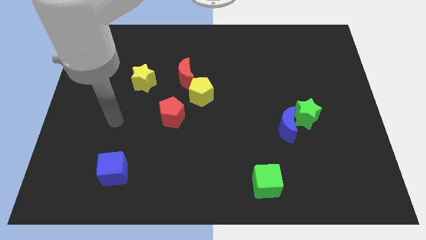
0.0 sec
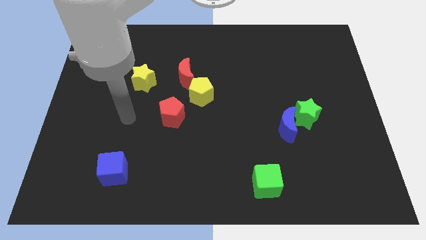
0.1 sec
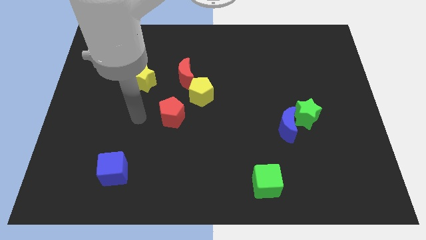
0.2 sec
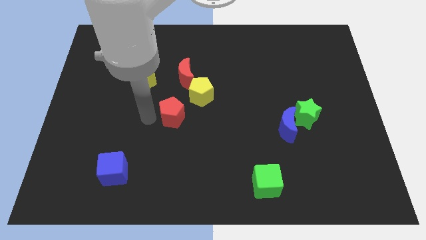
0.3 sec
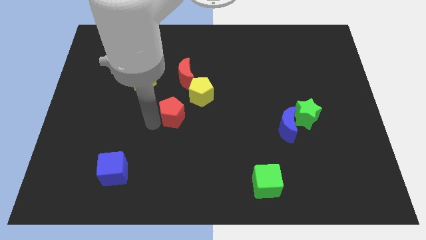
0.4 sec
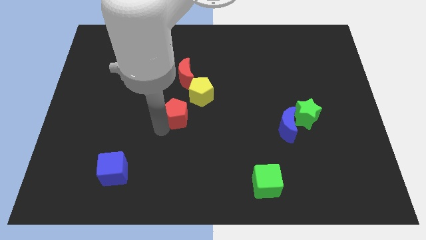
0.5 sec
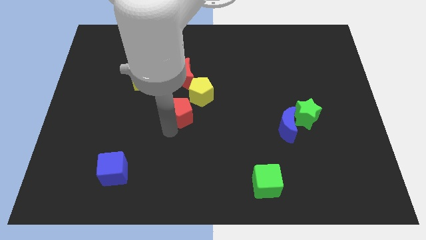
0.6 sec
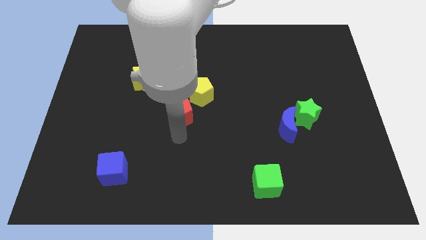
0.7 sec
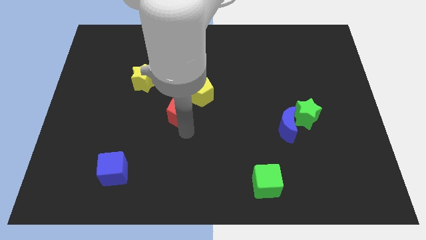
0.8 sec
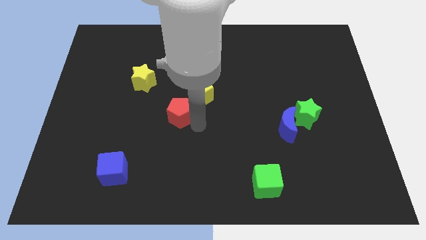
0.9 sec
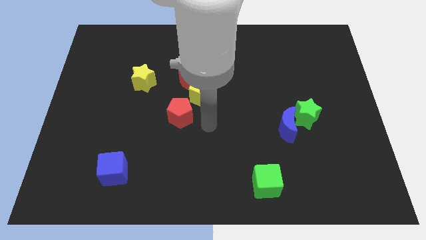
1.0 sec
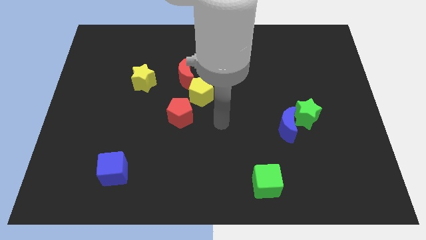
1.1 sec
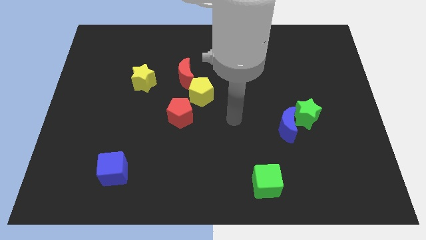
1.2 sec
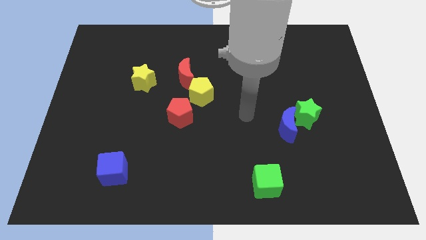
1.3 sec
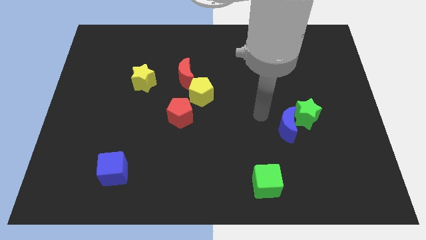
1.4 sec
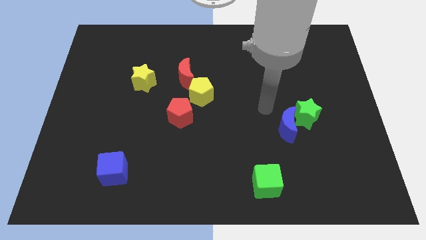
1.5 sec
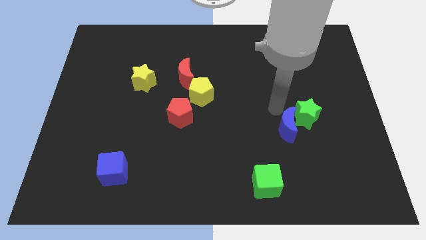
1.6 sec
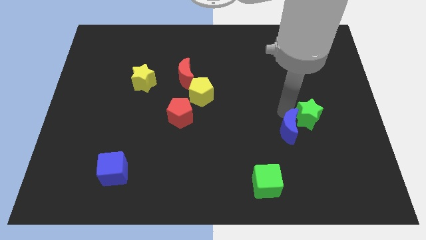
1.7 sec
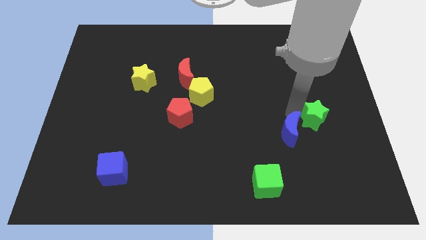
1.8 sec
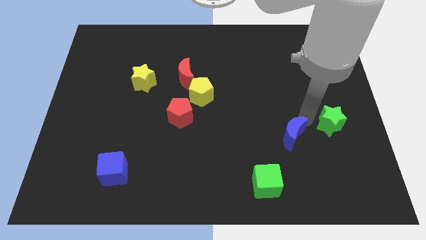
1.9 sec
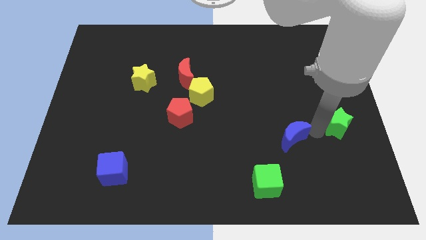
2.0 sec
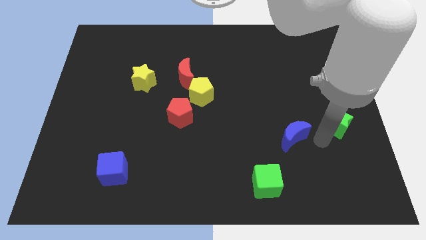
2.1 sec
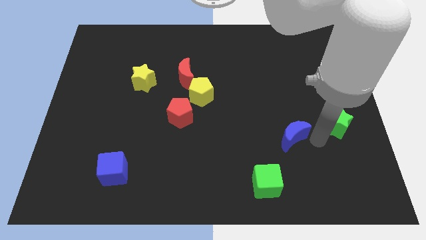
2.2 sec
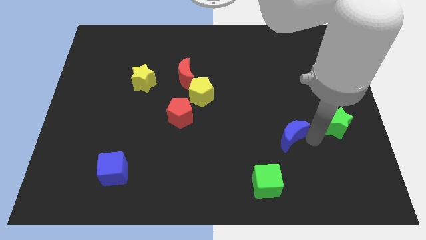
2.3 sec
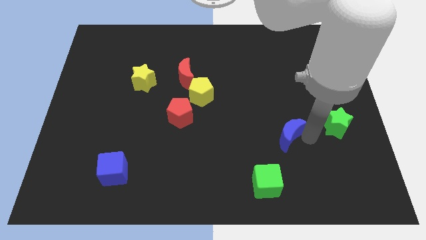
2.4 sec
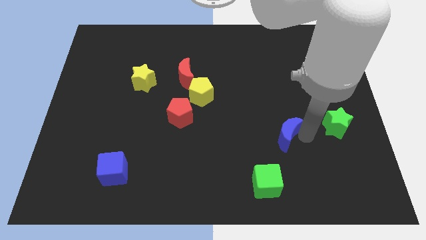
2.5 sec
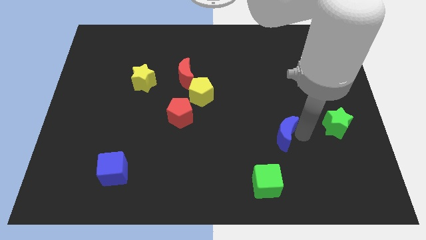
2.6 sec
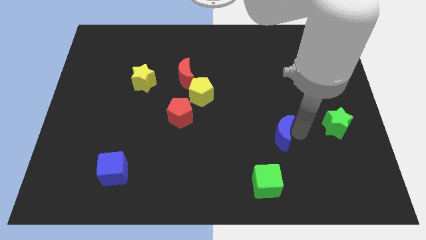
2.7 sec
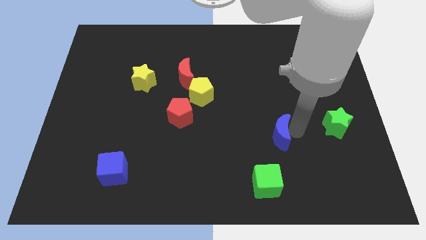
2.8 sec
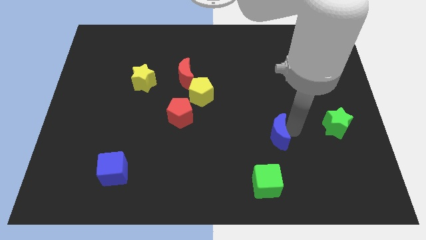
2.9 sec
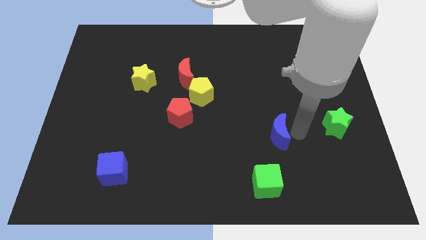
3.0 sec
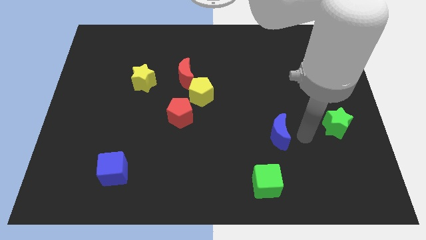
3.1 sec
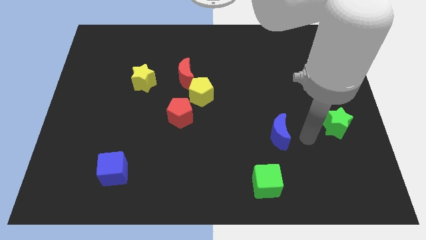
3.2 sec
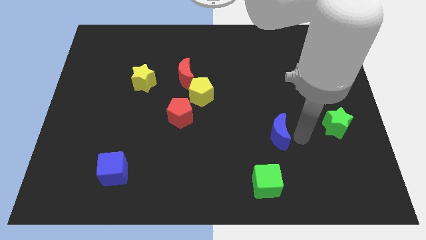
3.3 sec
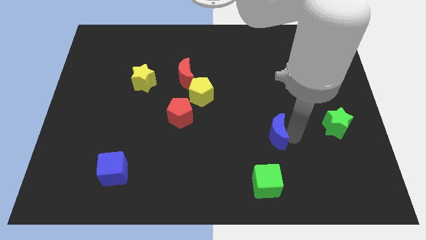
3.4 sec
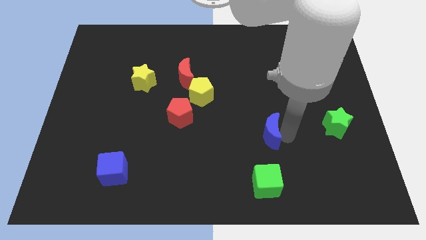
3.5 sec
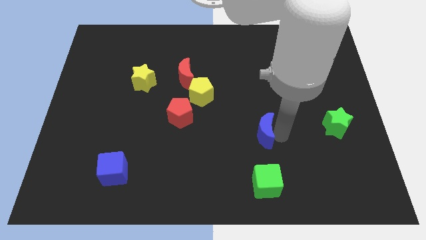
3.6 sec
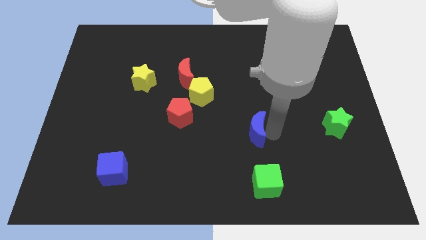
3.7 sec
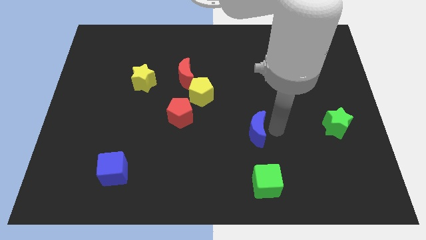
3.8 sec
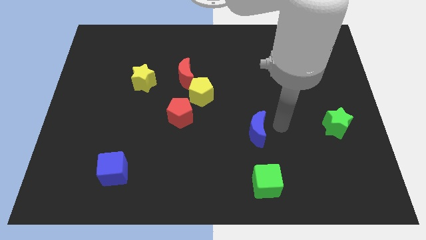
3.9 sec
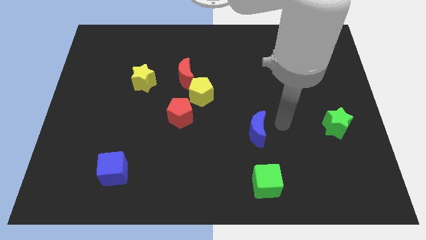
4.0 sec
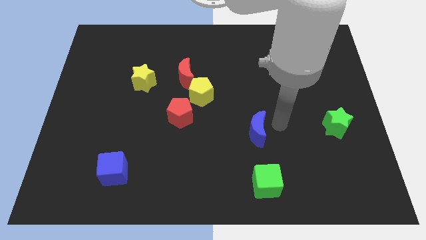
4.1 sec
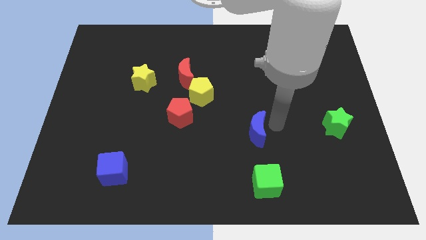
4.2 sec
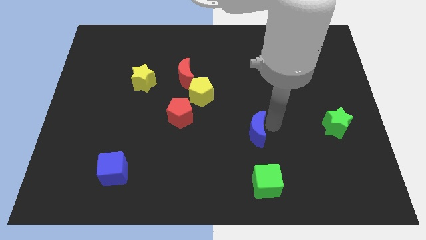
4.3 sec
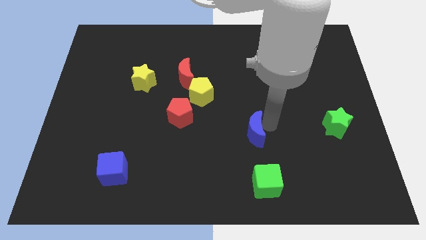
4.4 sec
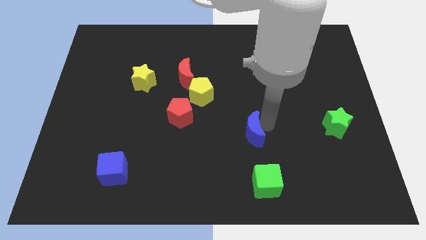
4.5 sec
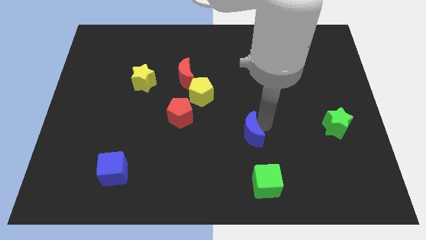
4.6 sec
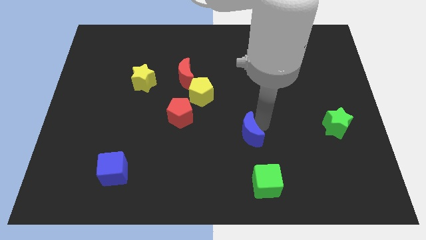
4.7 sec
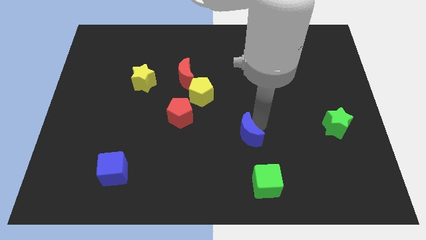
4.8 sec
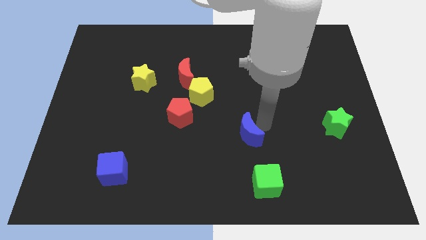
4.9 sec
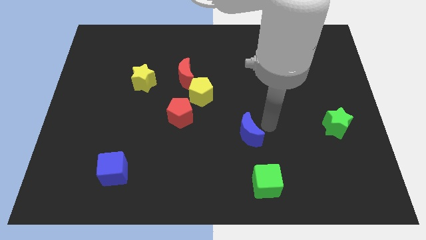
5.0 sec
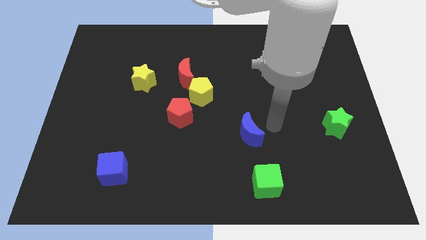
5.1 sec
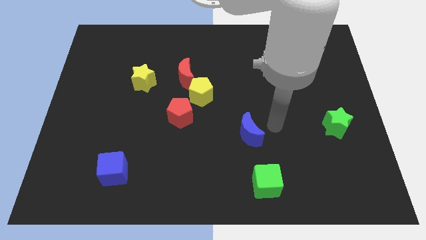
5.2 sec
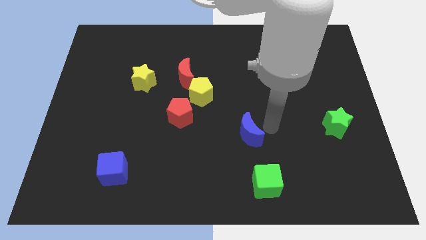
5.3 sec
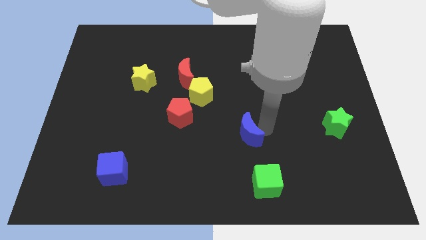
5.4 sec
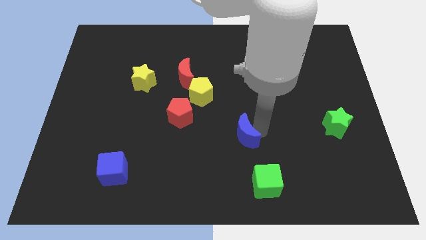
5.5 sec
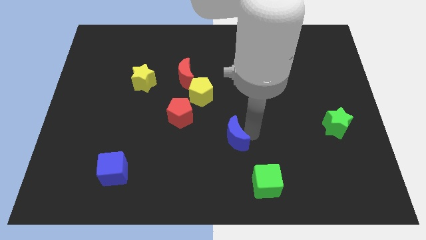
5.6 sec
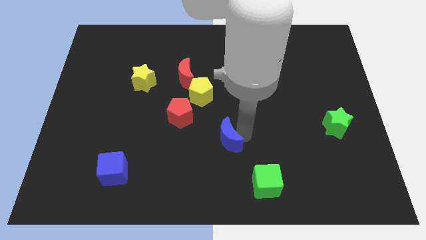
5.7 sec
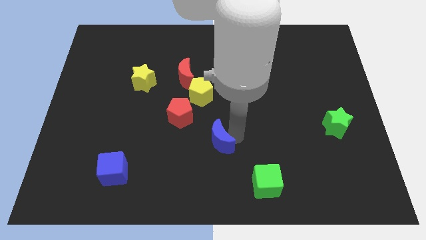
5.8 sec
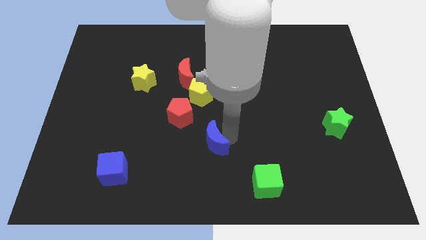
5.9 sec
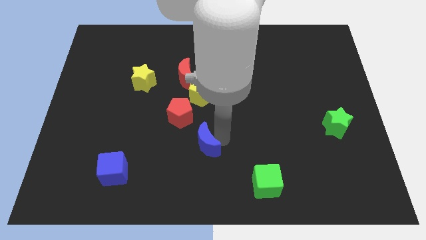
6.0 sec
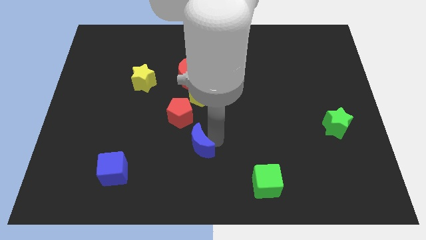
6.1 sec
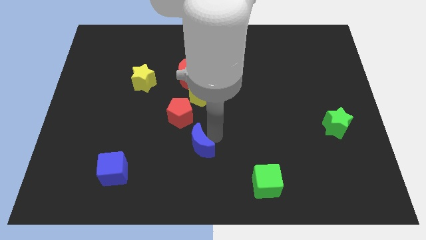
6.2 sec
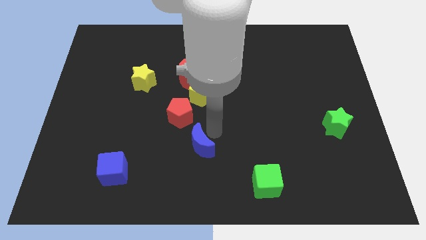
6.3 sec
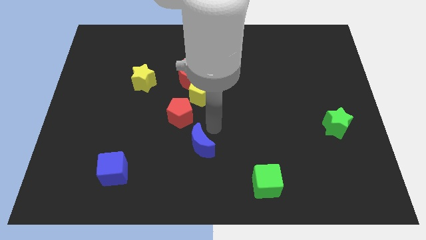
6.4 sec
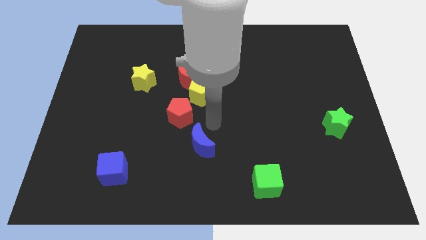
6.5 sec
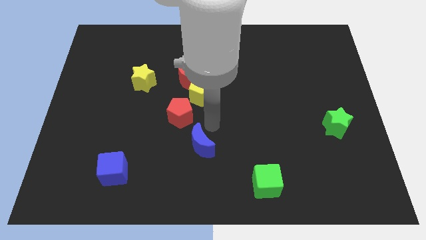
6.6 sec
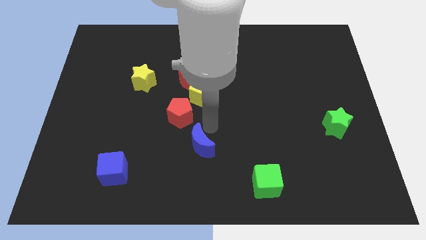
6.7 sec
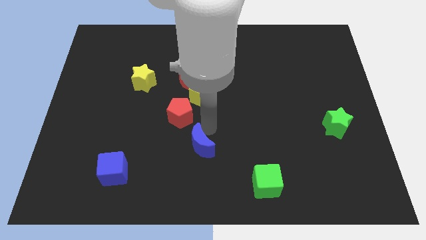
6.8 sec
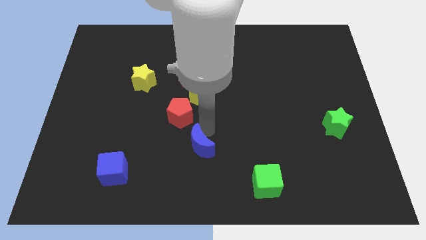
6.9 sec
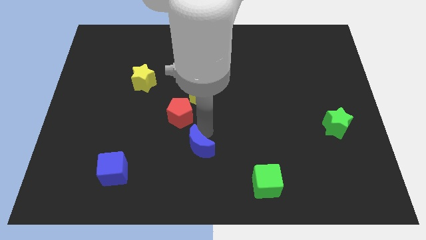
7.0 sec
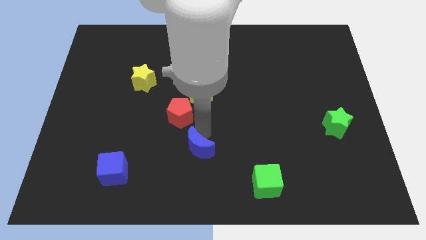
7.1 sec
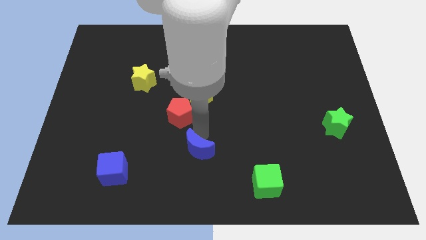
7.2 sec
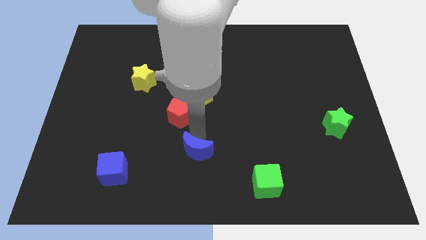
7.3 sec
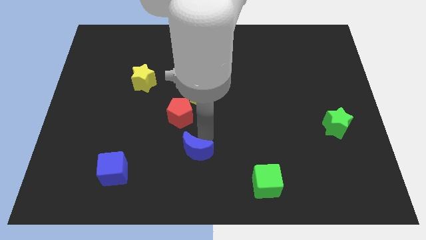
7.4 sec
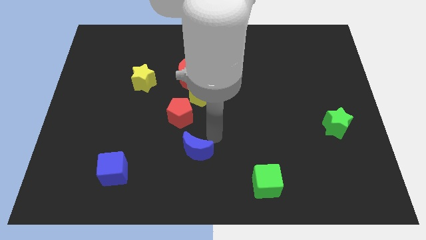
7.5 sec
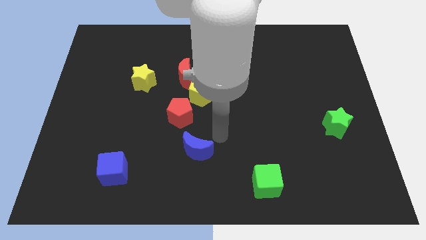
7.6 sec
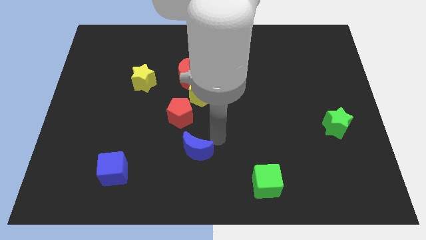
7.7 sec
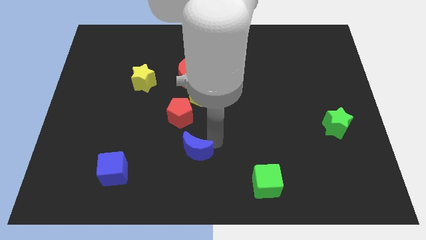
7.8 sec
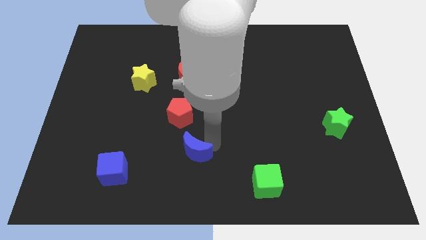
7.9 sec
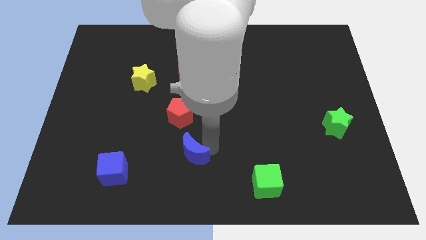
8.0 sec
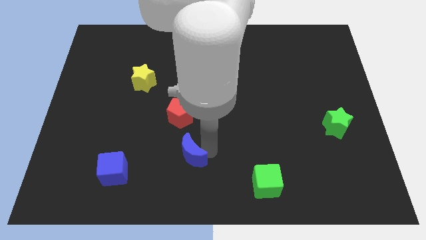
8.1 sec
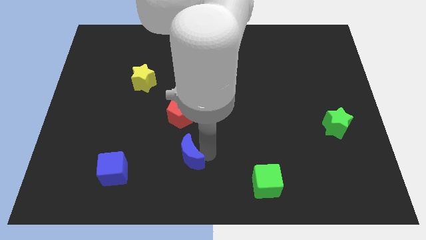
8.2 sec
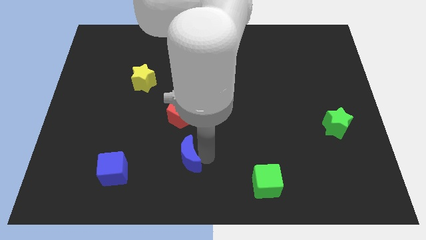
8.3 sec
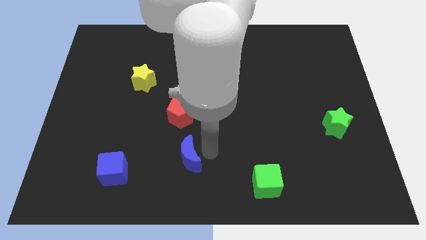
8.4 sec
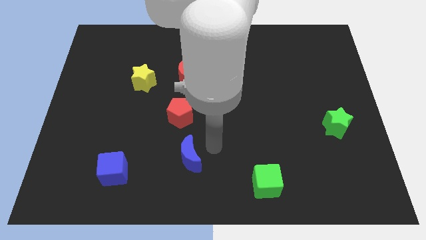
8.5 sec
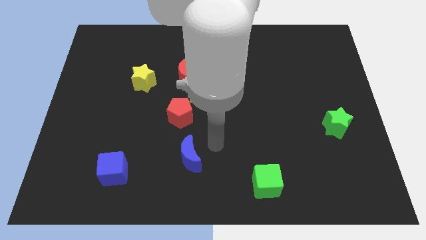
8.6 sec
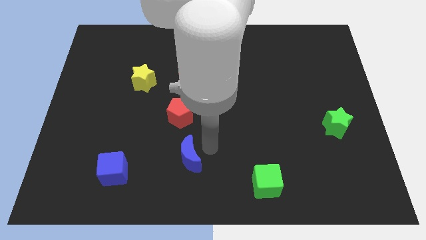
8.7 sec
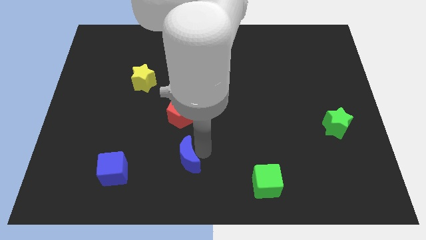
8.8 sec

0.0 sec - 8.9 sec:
slide the blue moon to the right of the blue cube
